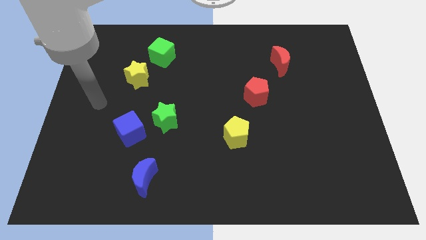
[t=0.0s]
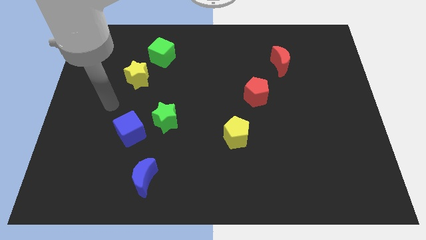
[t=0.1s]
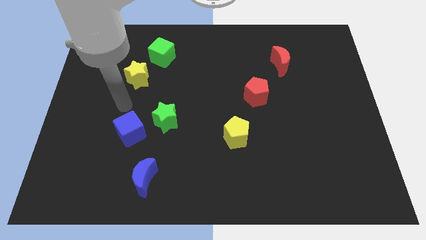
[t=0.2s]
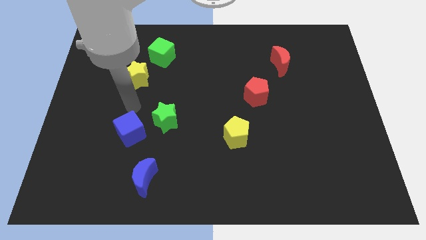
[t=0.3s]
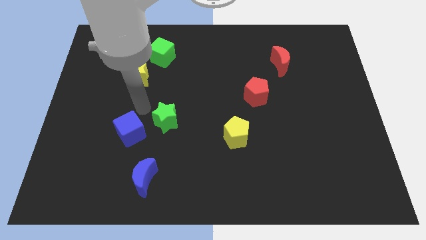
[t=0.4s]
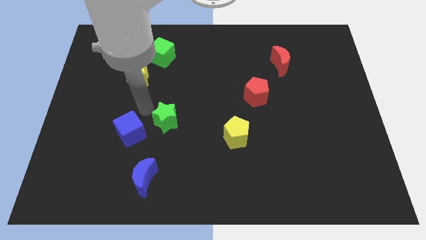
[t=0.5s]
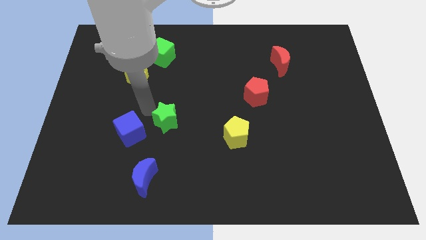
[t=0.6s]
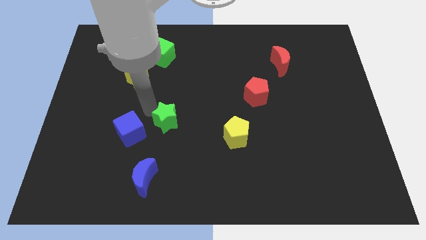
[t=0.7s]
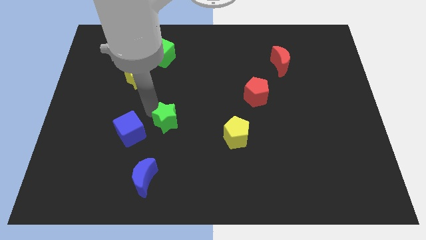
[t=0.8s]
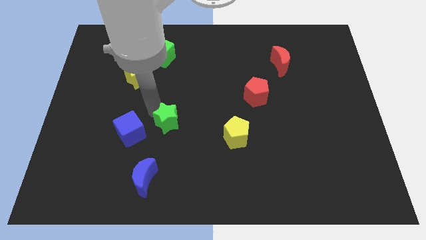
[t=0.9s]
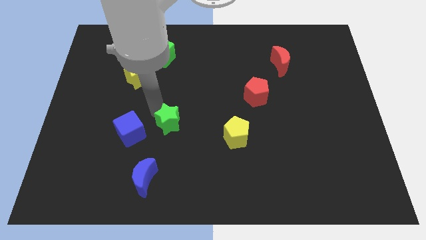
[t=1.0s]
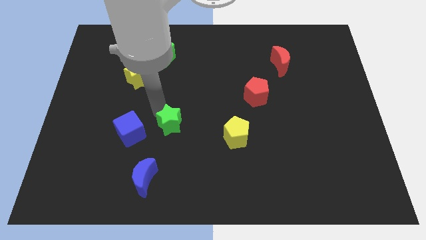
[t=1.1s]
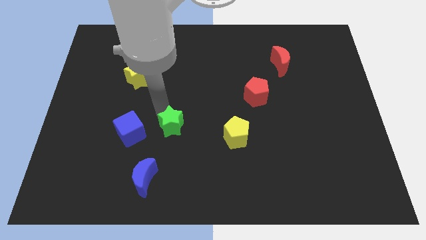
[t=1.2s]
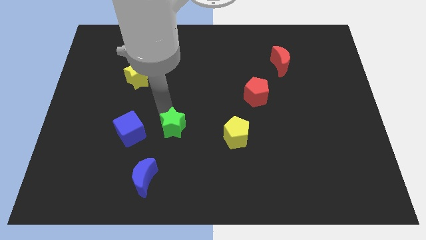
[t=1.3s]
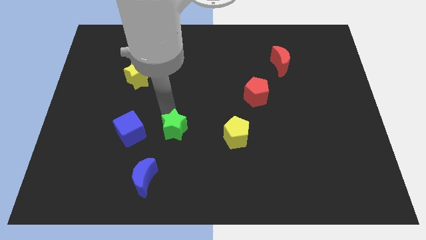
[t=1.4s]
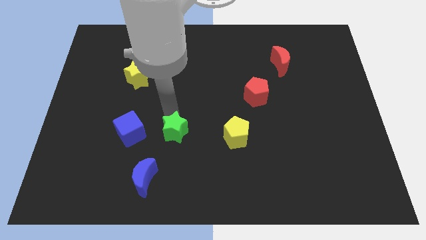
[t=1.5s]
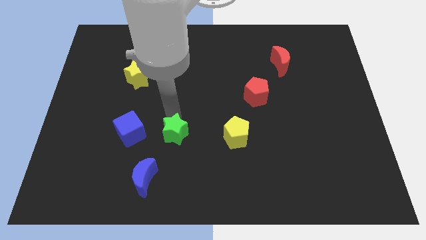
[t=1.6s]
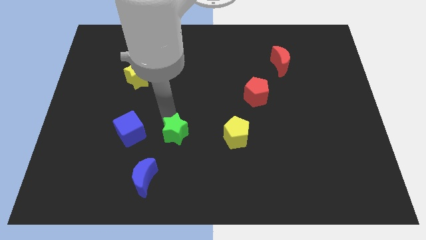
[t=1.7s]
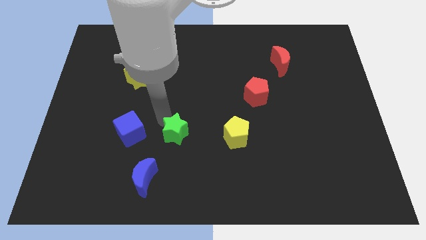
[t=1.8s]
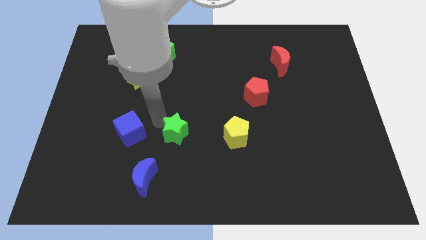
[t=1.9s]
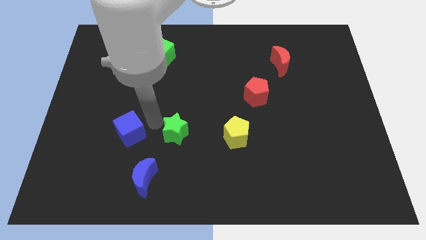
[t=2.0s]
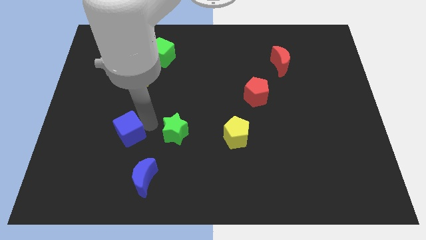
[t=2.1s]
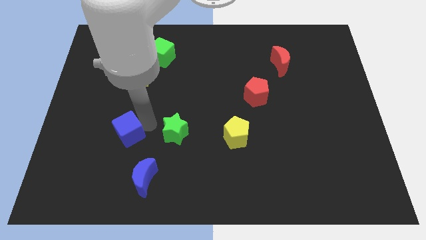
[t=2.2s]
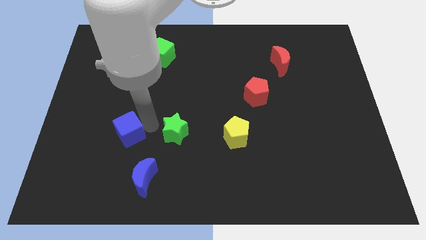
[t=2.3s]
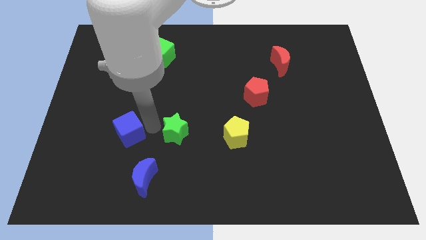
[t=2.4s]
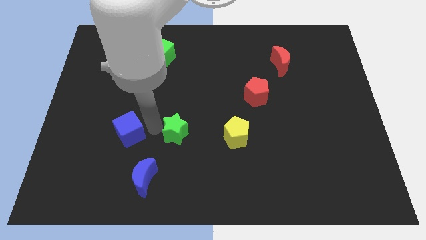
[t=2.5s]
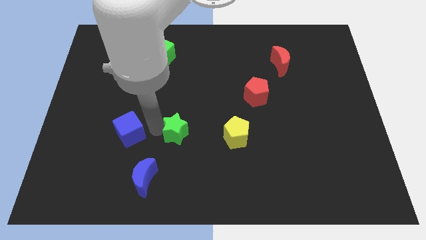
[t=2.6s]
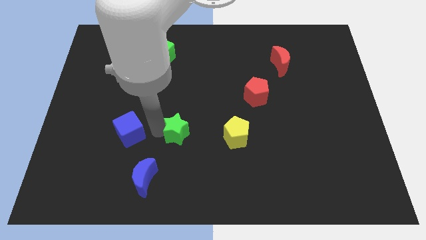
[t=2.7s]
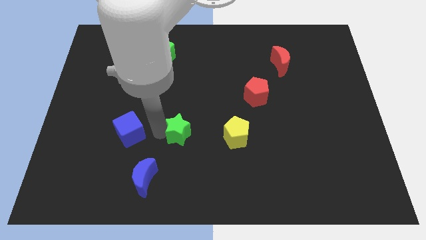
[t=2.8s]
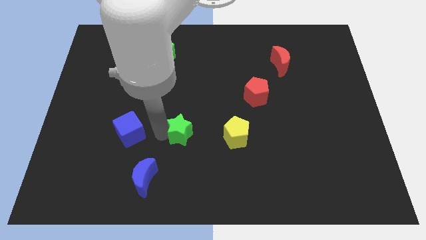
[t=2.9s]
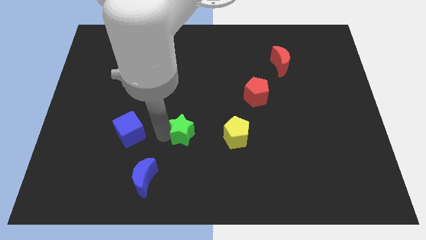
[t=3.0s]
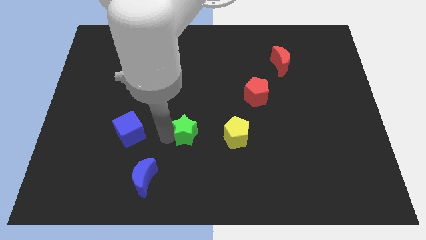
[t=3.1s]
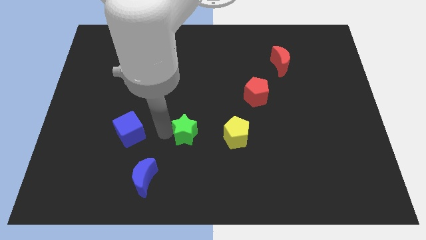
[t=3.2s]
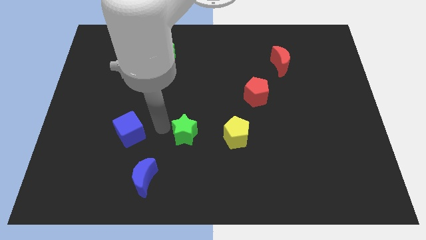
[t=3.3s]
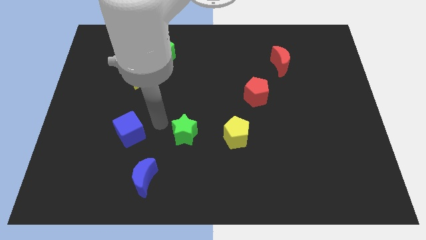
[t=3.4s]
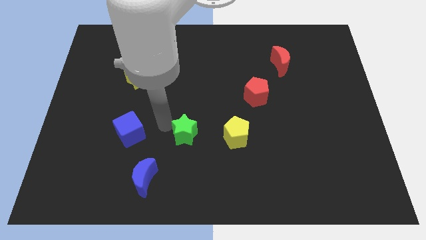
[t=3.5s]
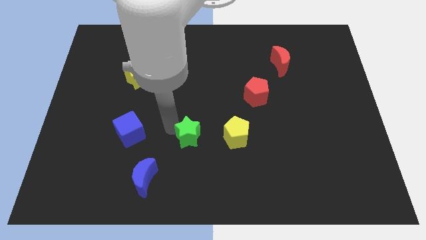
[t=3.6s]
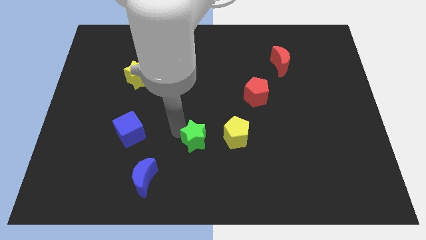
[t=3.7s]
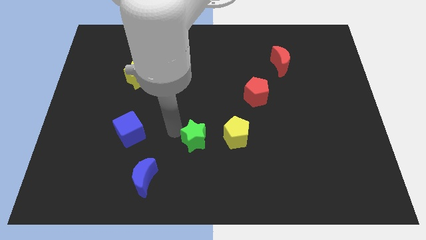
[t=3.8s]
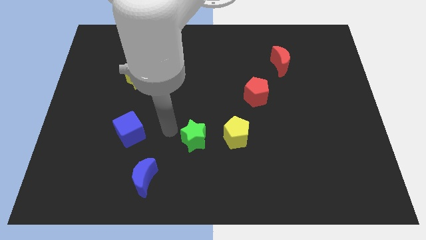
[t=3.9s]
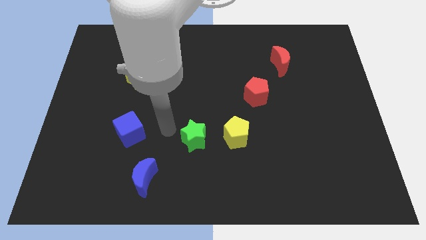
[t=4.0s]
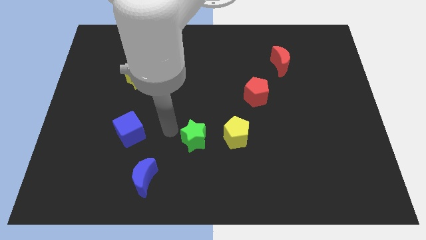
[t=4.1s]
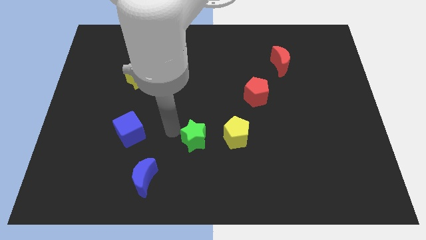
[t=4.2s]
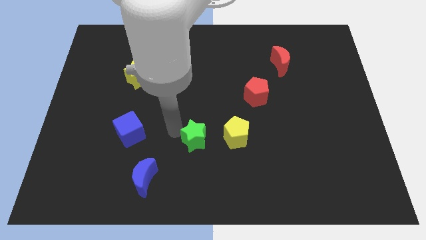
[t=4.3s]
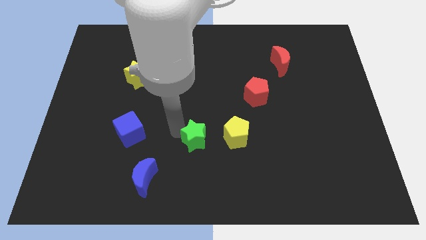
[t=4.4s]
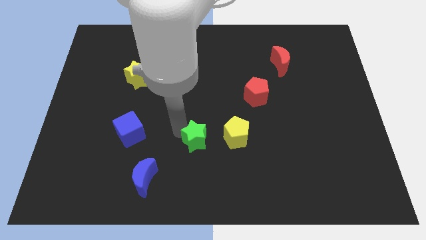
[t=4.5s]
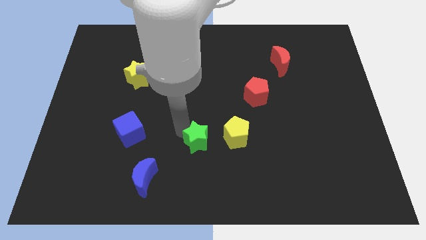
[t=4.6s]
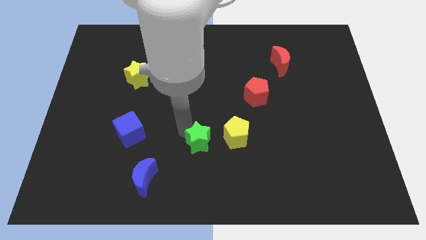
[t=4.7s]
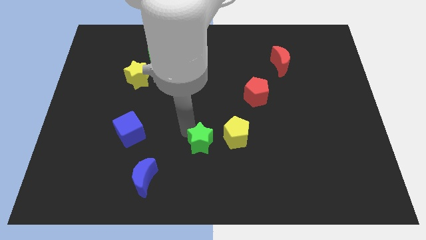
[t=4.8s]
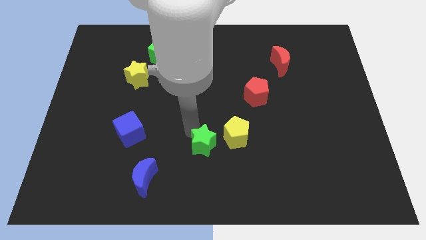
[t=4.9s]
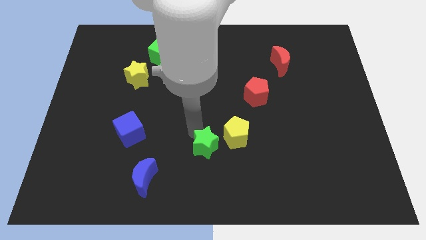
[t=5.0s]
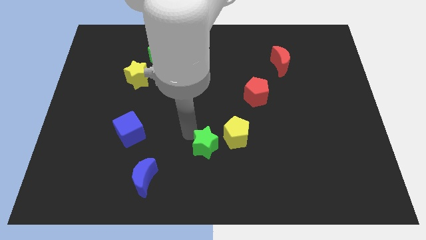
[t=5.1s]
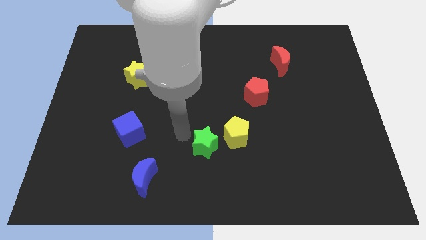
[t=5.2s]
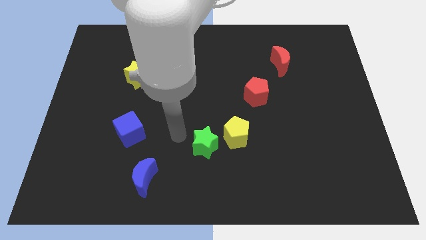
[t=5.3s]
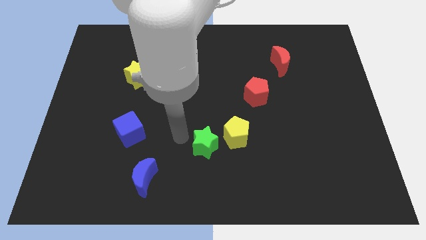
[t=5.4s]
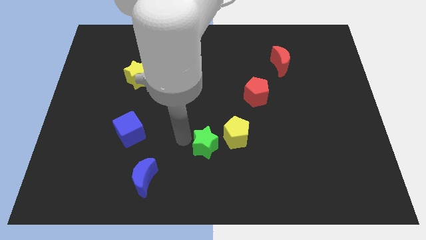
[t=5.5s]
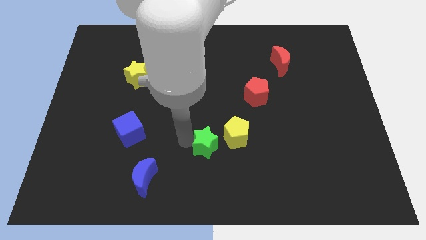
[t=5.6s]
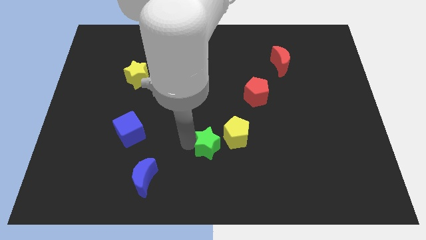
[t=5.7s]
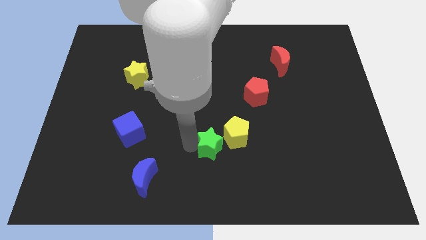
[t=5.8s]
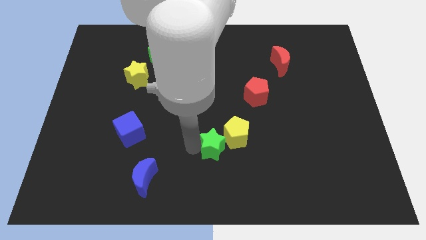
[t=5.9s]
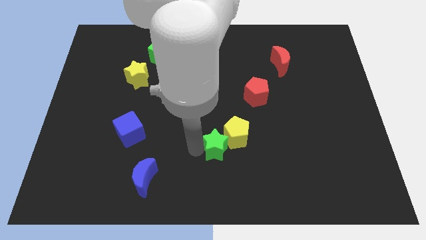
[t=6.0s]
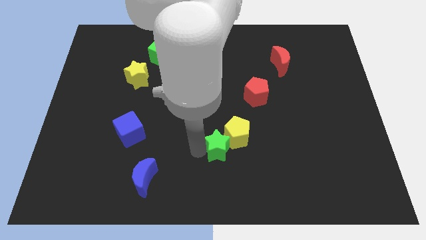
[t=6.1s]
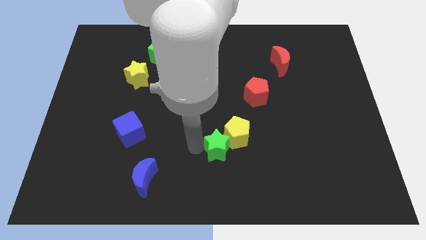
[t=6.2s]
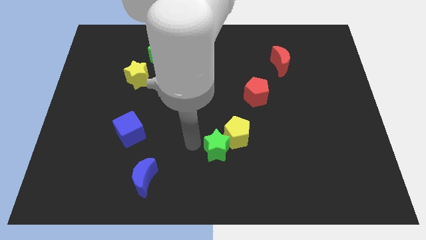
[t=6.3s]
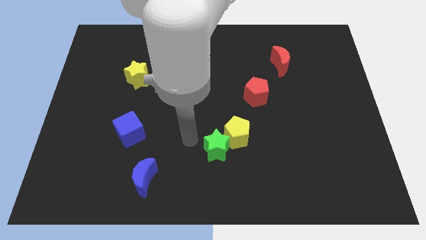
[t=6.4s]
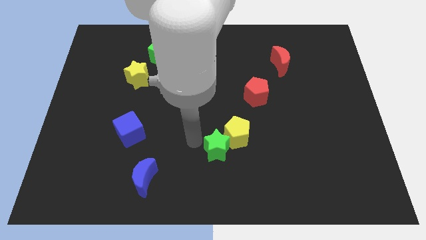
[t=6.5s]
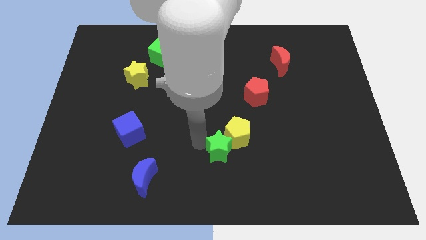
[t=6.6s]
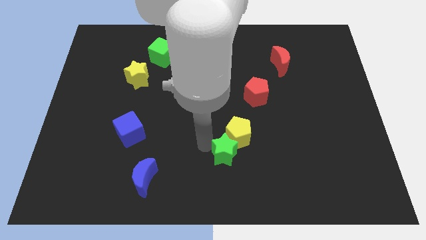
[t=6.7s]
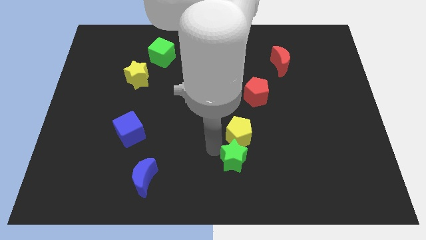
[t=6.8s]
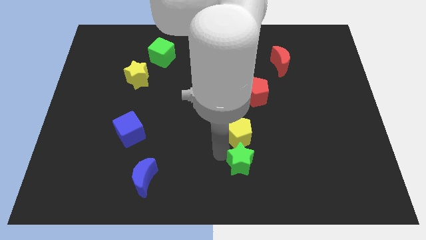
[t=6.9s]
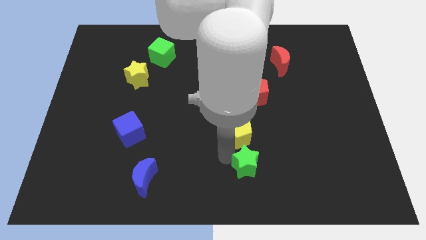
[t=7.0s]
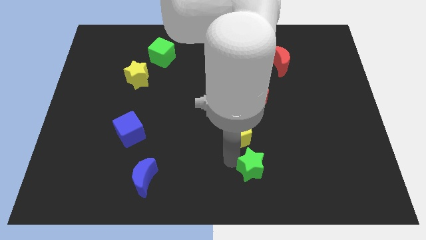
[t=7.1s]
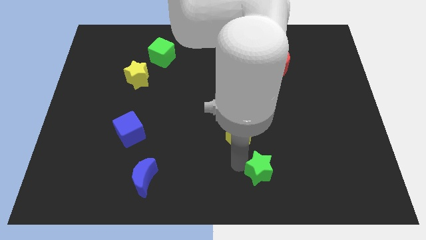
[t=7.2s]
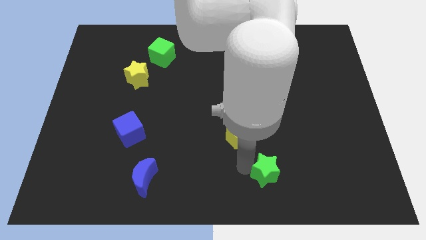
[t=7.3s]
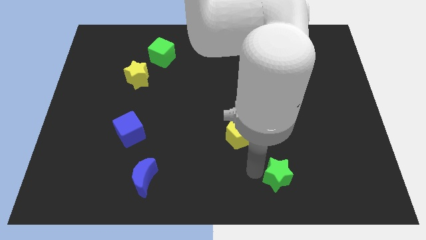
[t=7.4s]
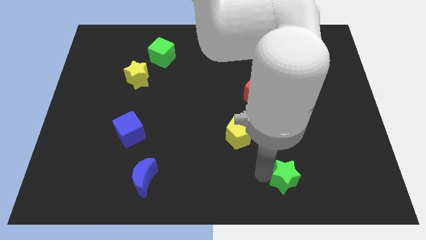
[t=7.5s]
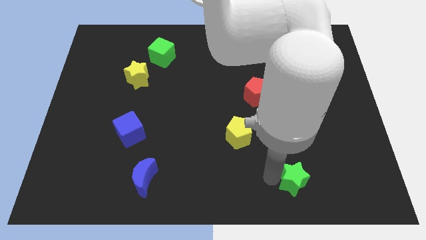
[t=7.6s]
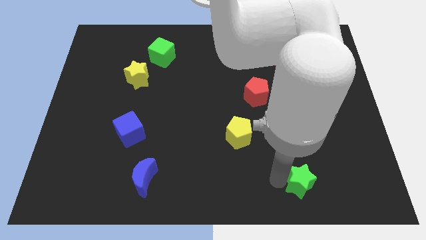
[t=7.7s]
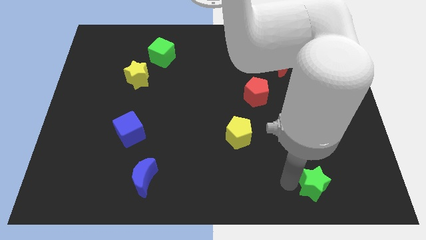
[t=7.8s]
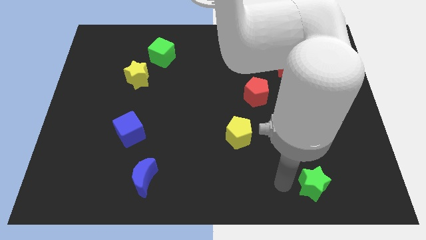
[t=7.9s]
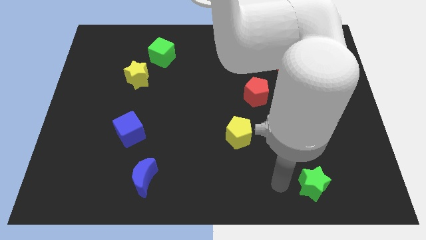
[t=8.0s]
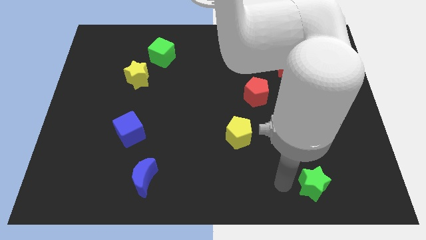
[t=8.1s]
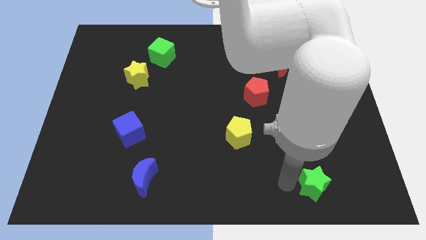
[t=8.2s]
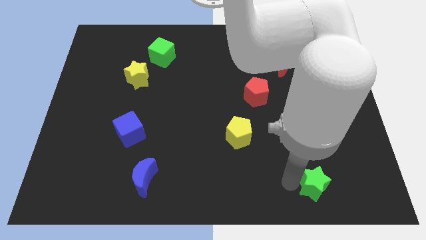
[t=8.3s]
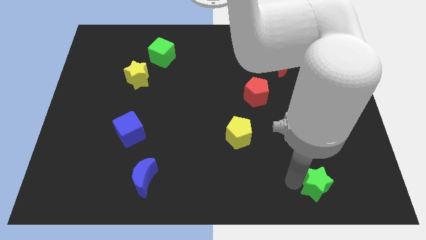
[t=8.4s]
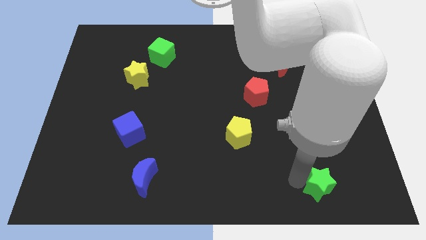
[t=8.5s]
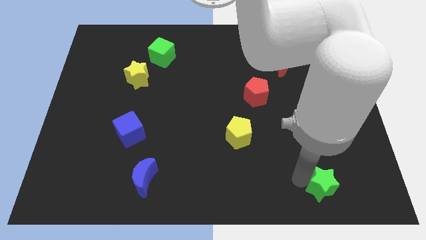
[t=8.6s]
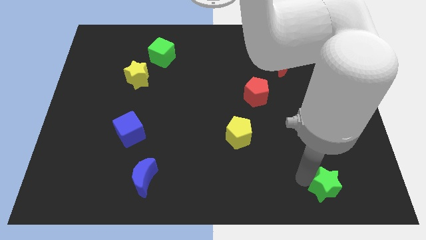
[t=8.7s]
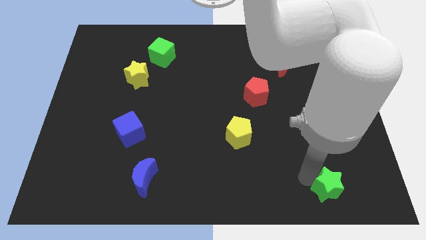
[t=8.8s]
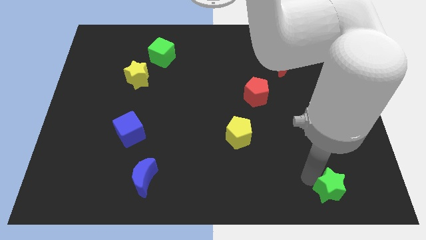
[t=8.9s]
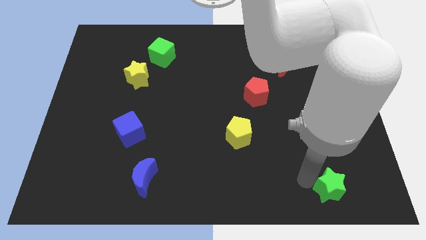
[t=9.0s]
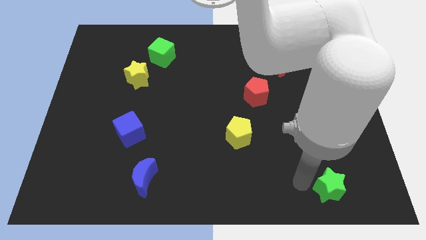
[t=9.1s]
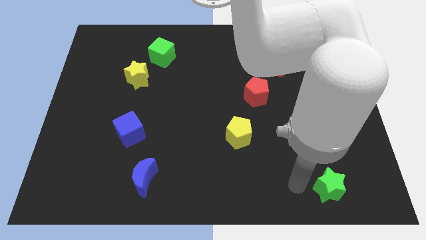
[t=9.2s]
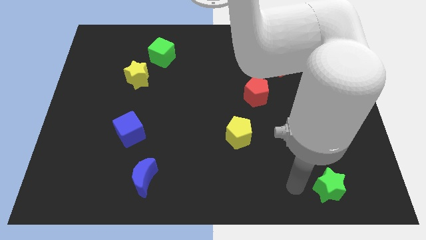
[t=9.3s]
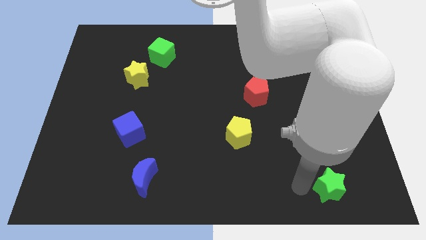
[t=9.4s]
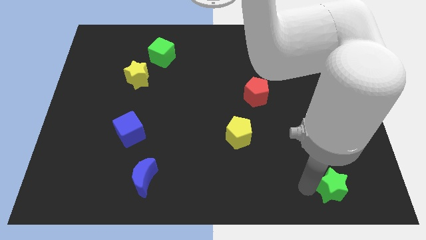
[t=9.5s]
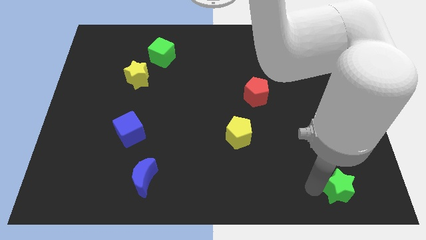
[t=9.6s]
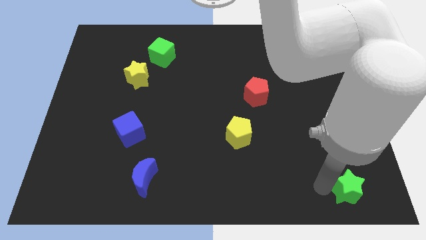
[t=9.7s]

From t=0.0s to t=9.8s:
put the green star to the bottom right of the board
